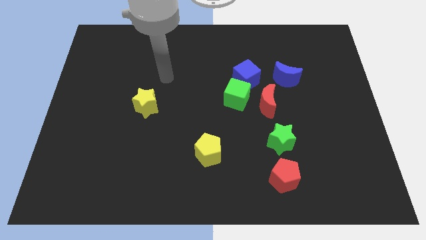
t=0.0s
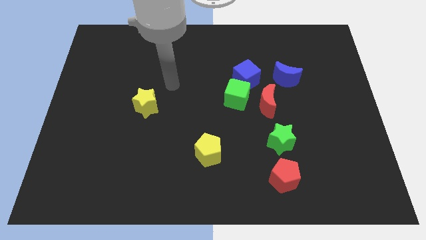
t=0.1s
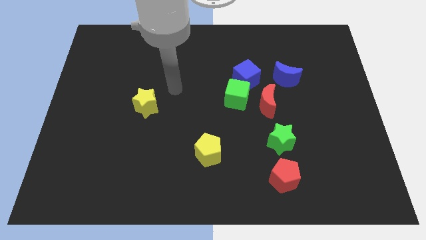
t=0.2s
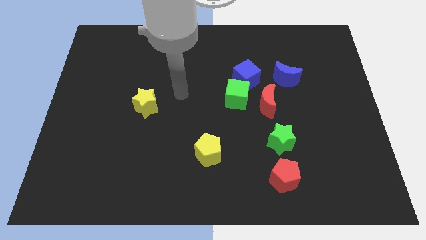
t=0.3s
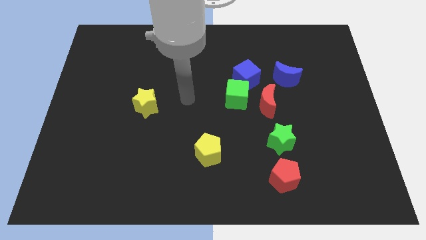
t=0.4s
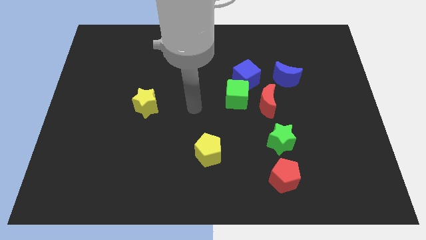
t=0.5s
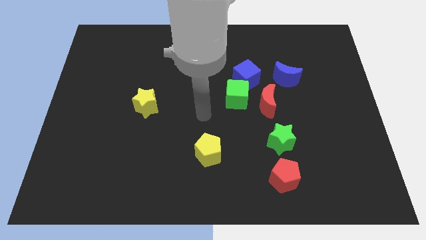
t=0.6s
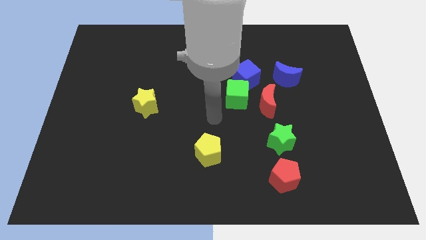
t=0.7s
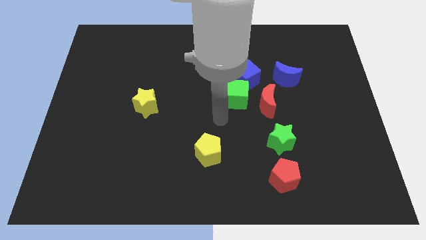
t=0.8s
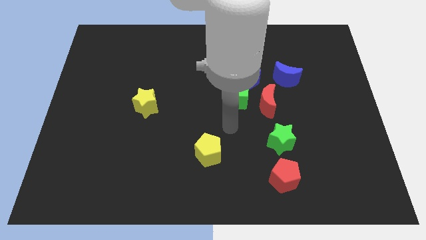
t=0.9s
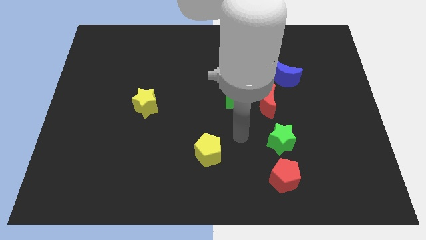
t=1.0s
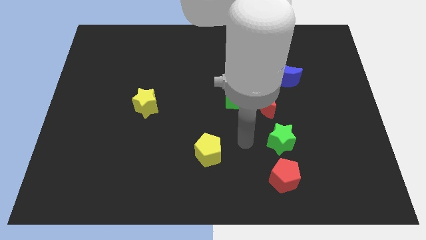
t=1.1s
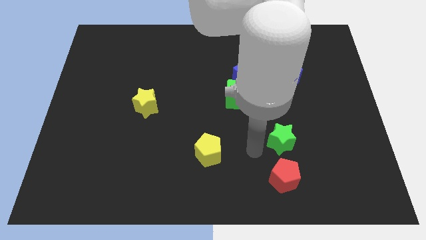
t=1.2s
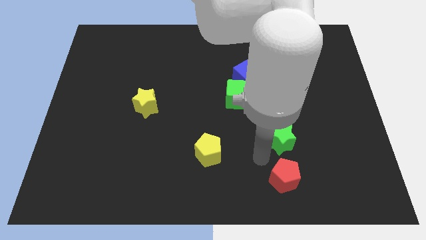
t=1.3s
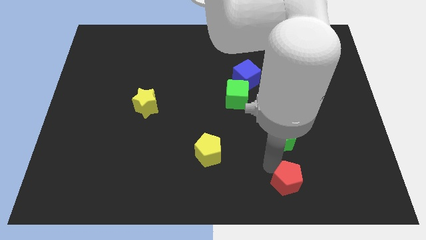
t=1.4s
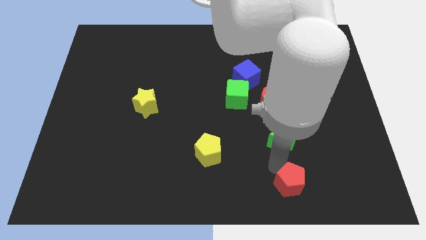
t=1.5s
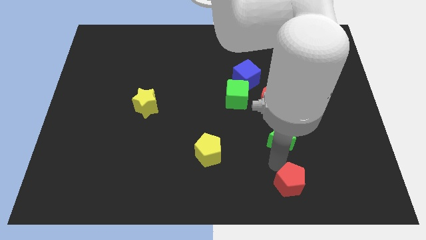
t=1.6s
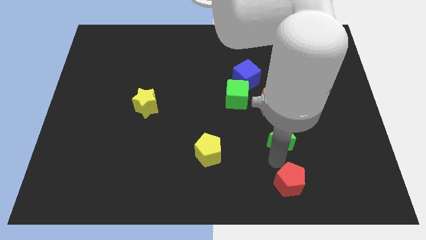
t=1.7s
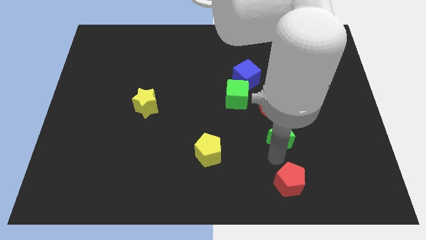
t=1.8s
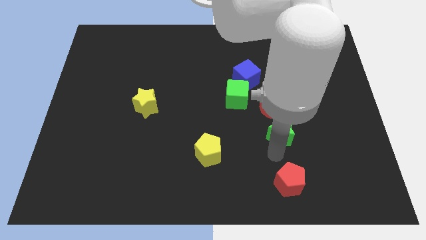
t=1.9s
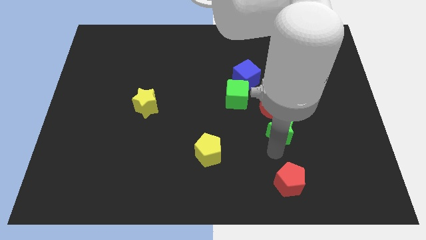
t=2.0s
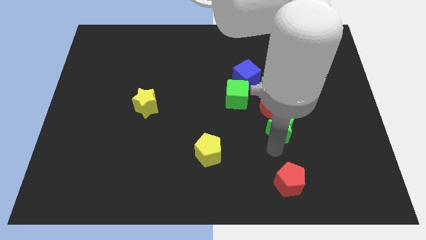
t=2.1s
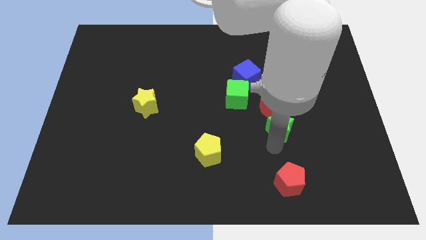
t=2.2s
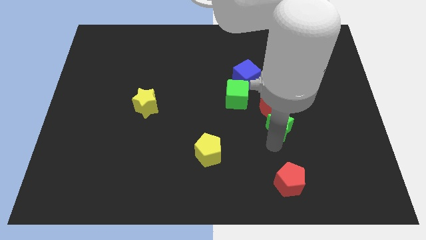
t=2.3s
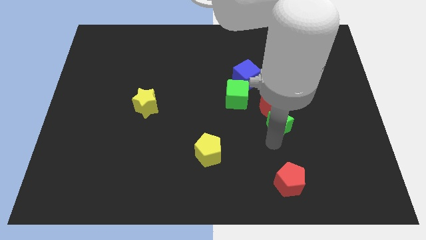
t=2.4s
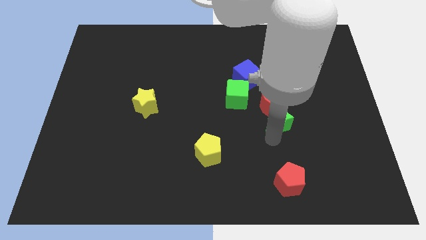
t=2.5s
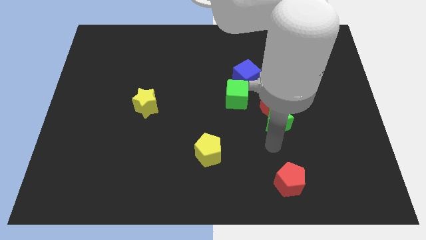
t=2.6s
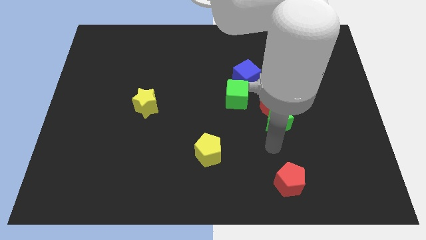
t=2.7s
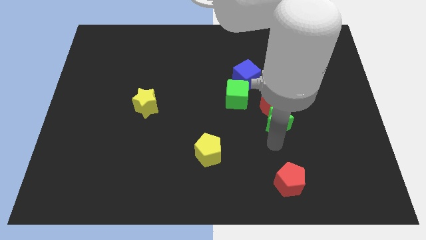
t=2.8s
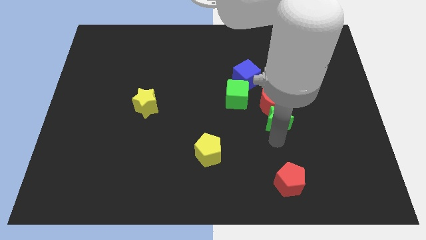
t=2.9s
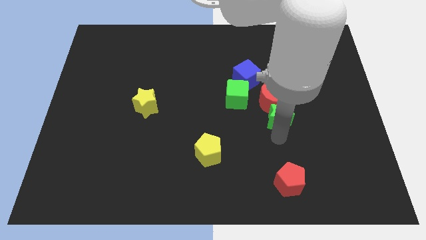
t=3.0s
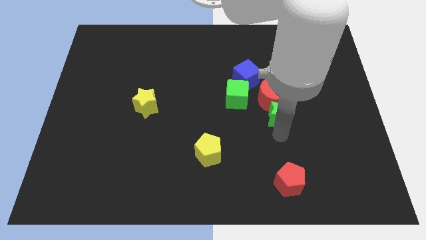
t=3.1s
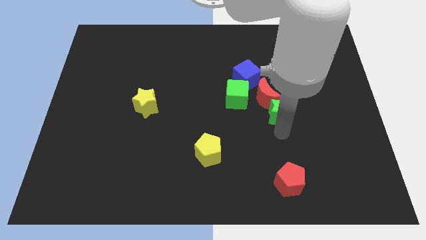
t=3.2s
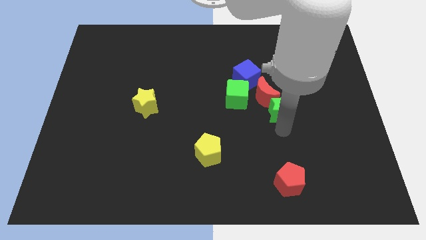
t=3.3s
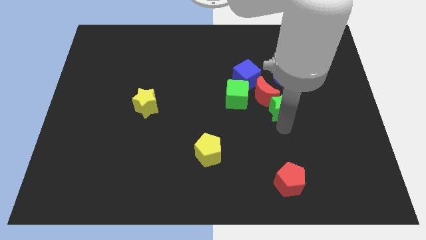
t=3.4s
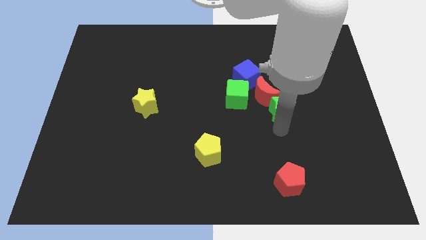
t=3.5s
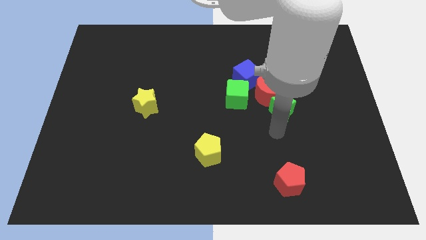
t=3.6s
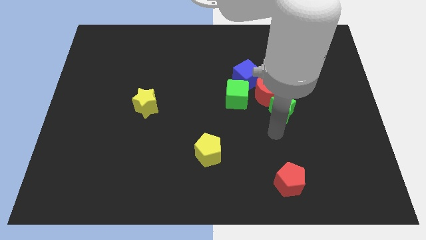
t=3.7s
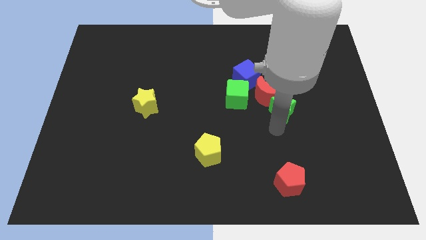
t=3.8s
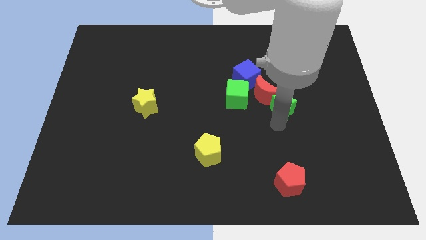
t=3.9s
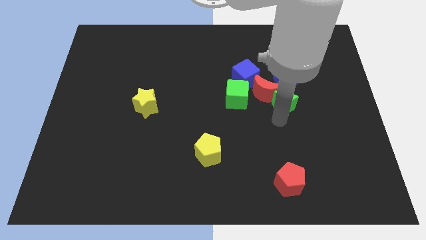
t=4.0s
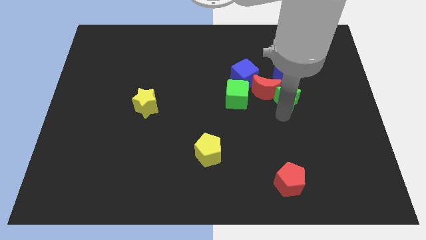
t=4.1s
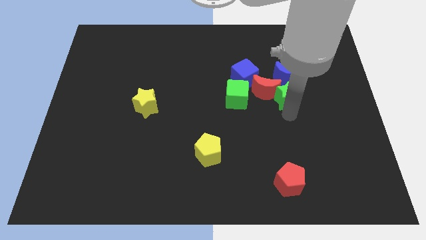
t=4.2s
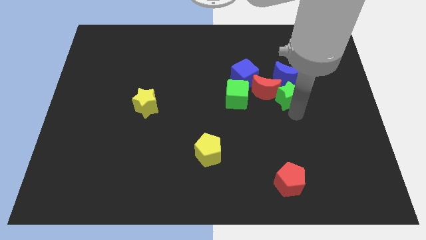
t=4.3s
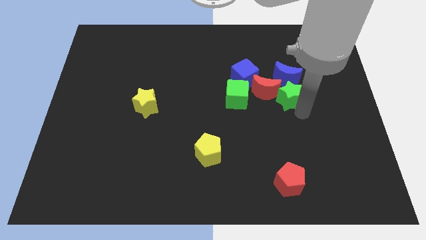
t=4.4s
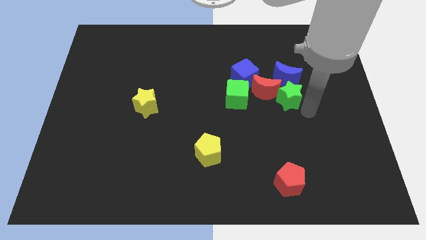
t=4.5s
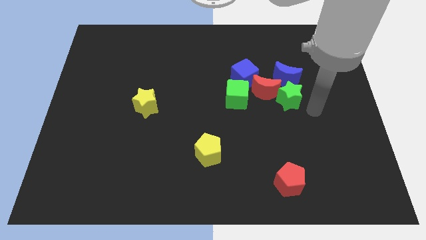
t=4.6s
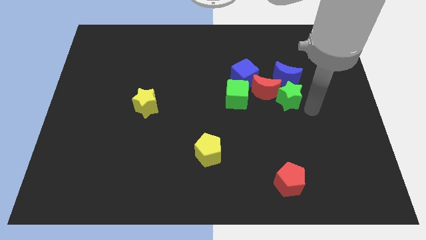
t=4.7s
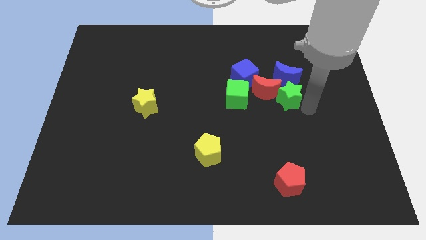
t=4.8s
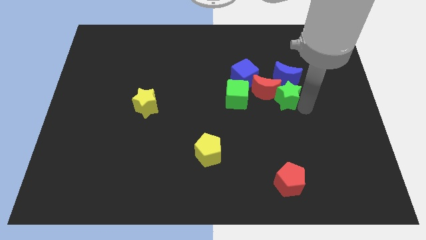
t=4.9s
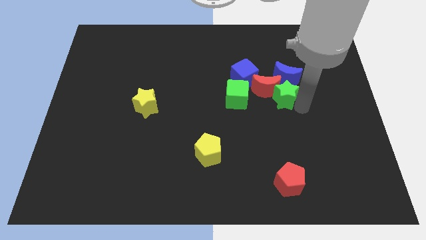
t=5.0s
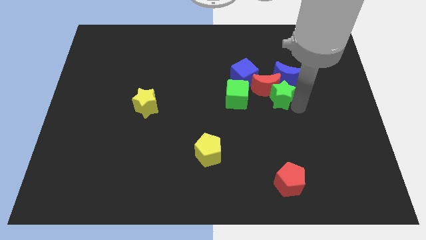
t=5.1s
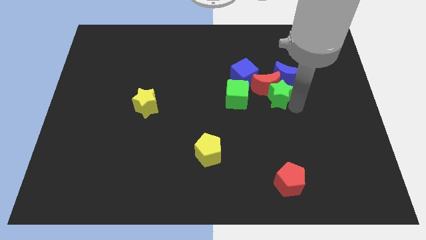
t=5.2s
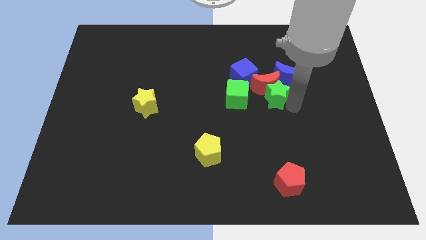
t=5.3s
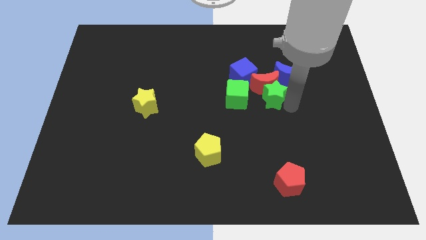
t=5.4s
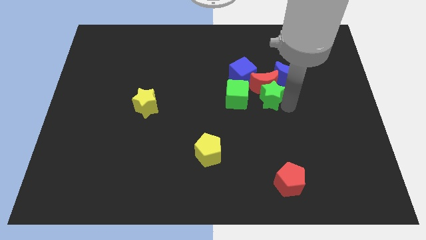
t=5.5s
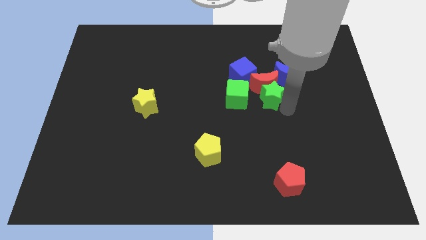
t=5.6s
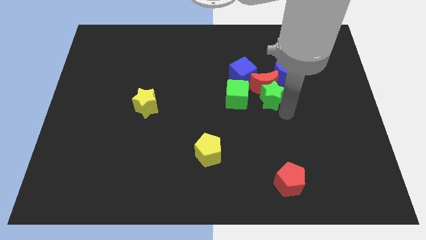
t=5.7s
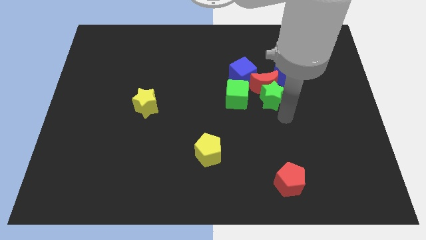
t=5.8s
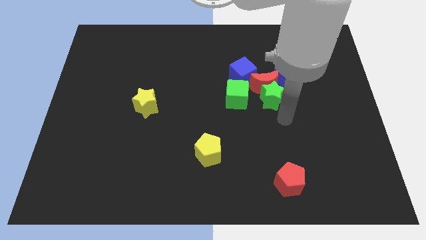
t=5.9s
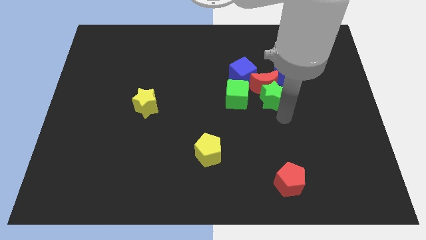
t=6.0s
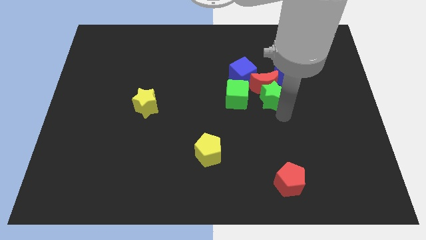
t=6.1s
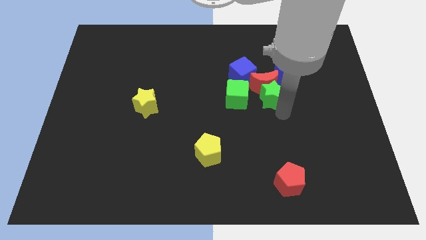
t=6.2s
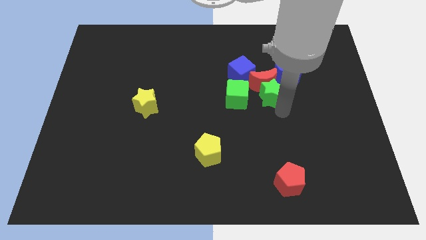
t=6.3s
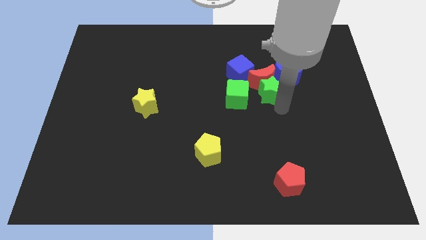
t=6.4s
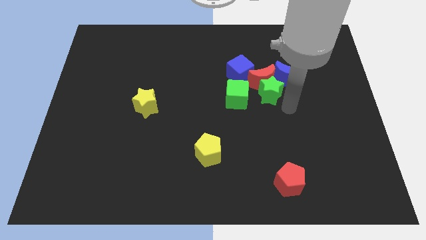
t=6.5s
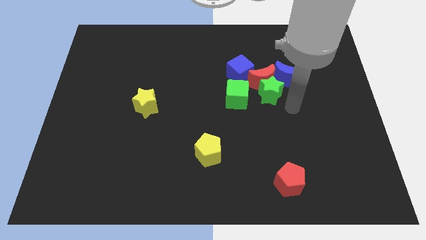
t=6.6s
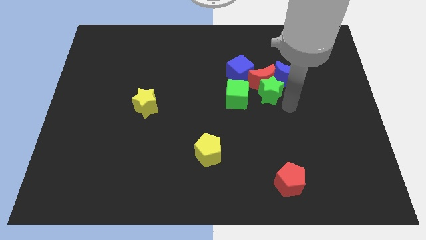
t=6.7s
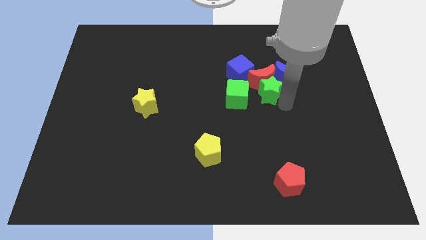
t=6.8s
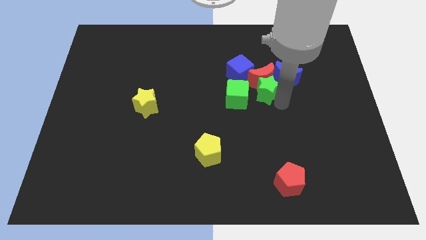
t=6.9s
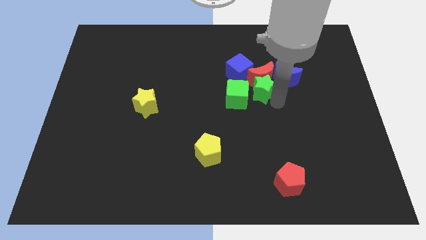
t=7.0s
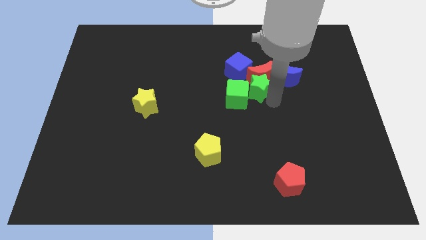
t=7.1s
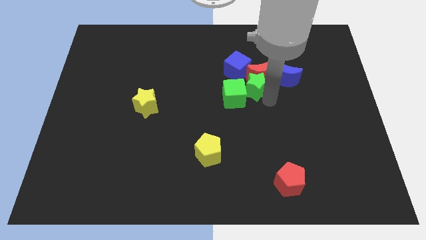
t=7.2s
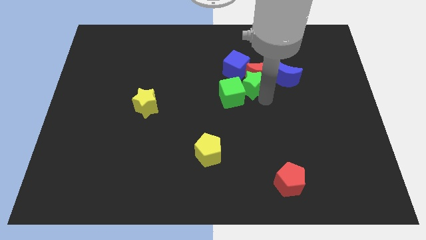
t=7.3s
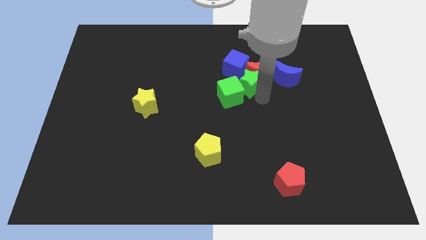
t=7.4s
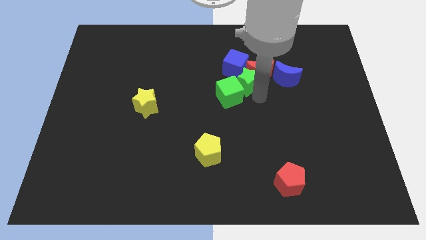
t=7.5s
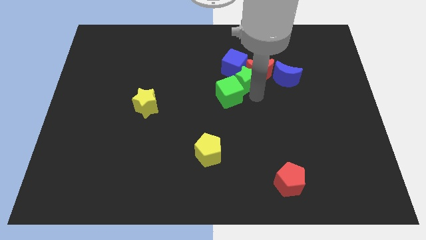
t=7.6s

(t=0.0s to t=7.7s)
push the green star to the blue cube
